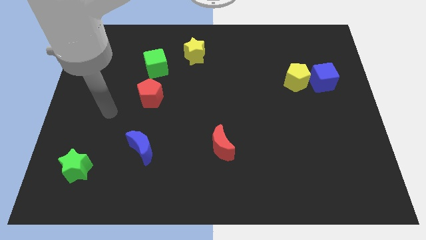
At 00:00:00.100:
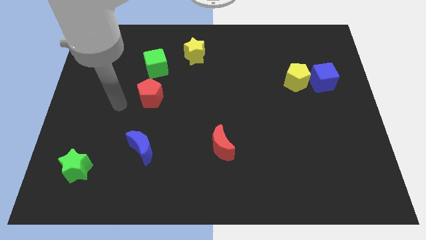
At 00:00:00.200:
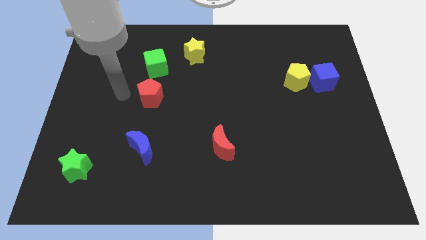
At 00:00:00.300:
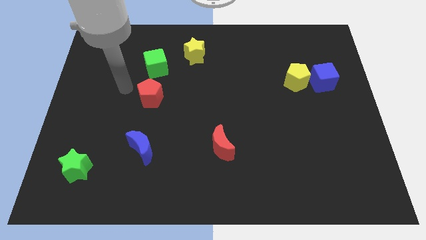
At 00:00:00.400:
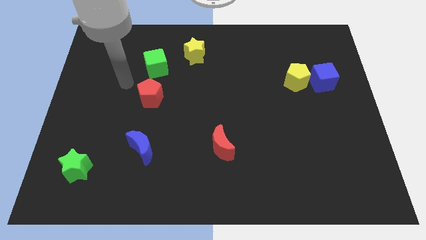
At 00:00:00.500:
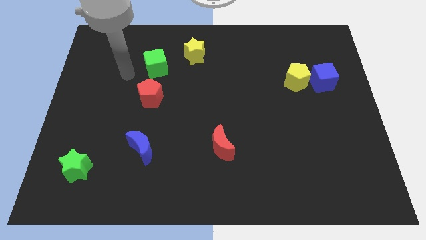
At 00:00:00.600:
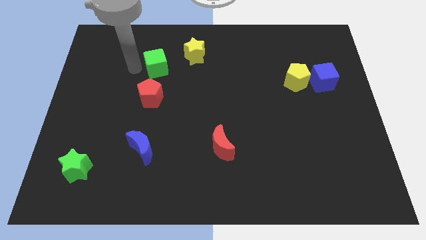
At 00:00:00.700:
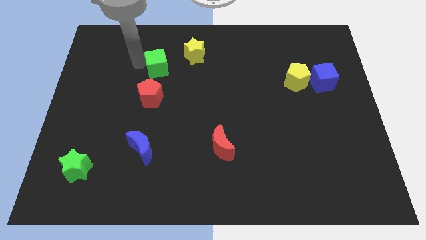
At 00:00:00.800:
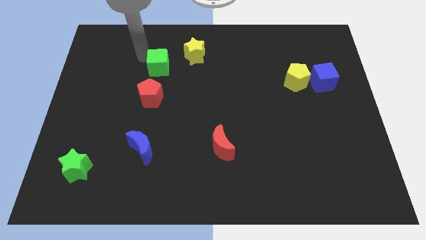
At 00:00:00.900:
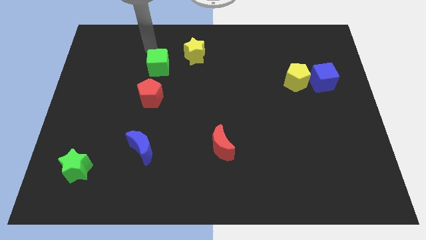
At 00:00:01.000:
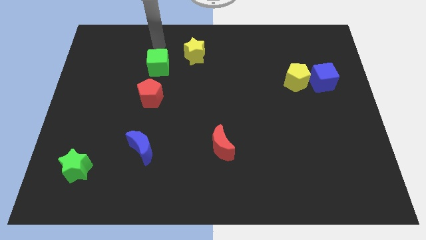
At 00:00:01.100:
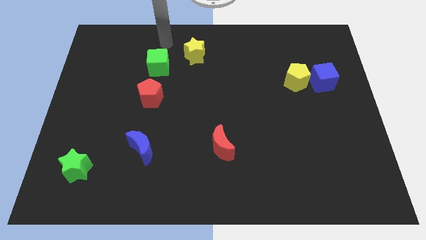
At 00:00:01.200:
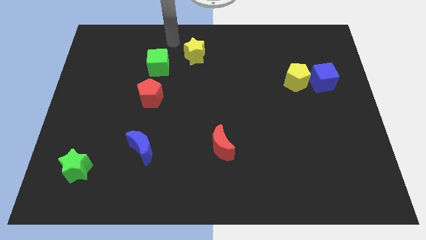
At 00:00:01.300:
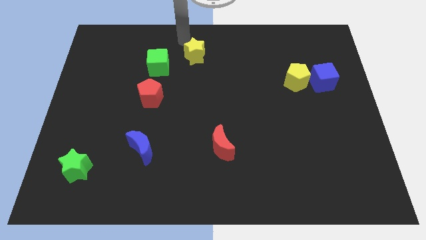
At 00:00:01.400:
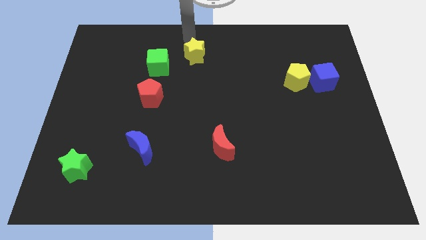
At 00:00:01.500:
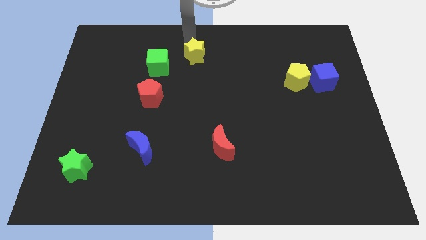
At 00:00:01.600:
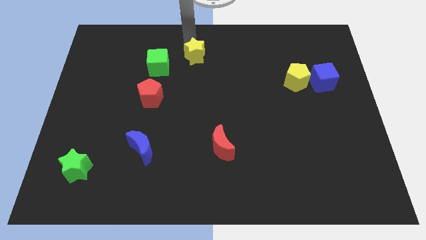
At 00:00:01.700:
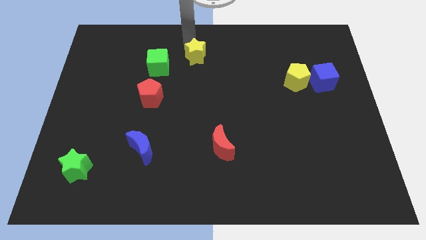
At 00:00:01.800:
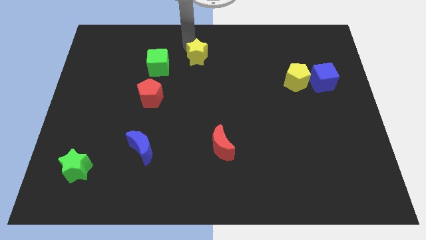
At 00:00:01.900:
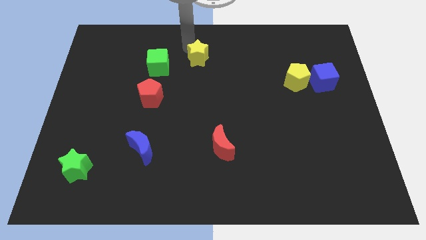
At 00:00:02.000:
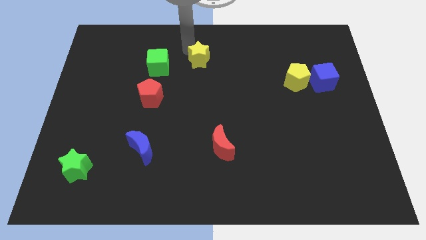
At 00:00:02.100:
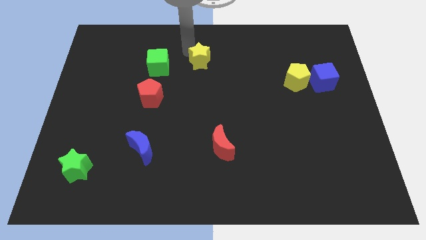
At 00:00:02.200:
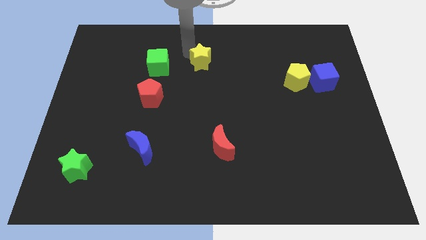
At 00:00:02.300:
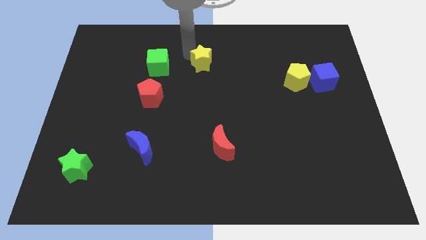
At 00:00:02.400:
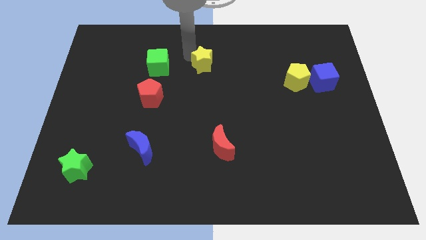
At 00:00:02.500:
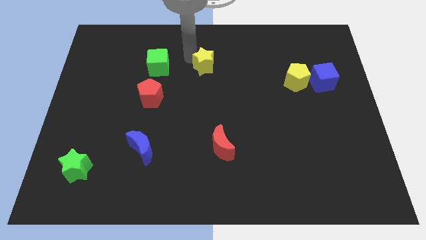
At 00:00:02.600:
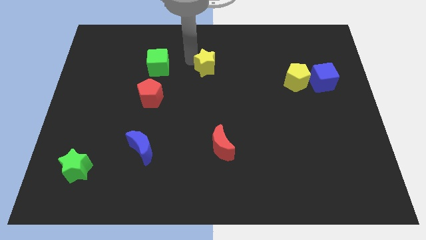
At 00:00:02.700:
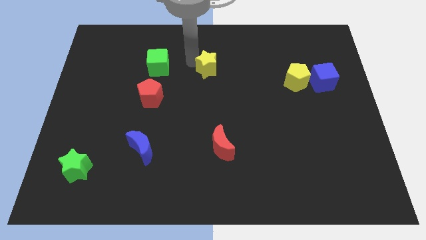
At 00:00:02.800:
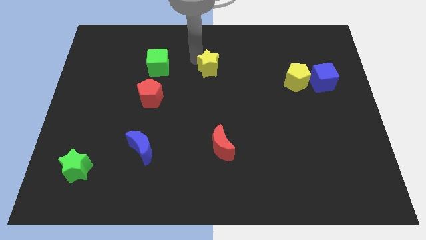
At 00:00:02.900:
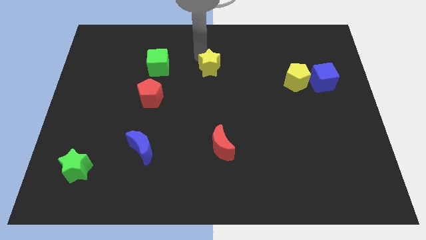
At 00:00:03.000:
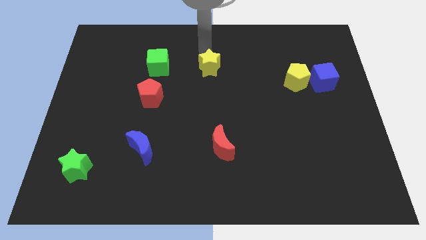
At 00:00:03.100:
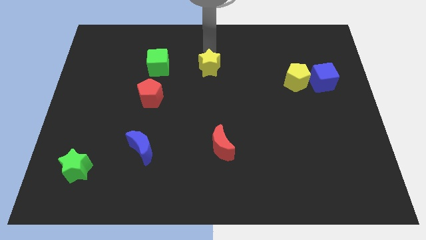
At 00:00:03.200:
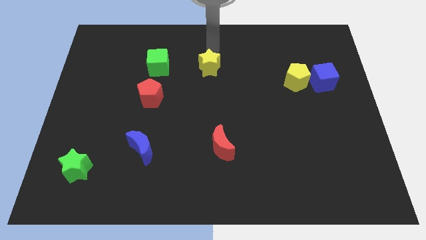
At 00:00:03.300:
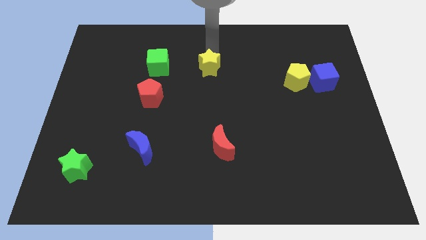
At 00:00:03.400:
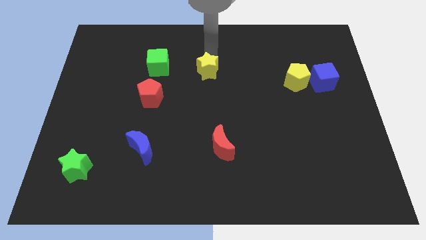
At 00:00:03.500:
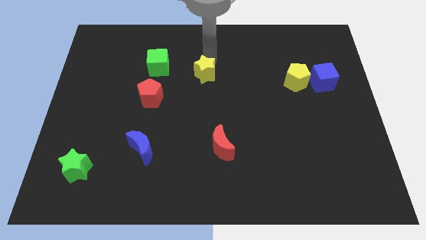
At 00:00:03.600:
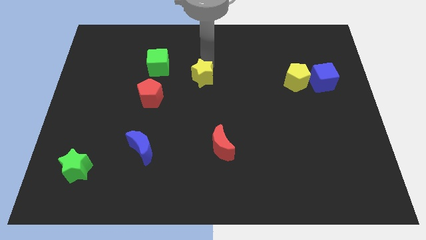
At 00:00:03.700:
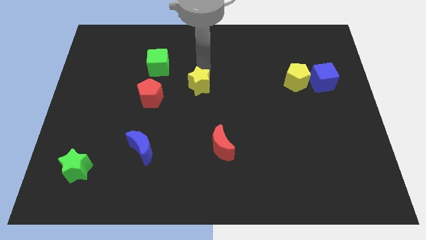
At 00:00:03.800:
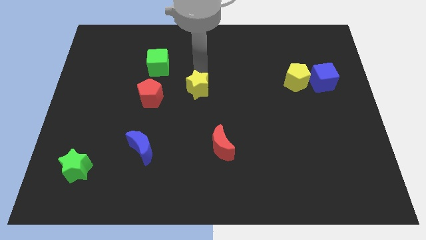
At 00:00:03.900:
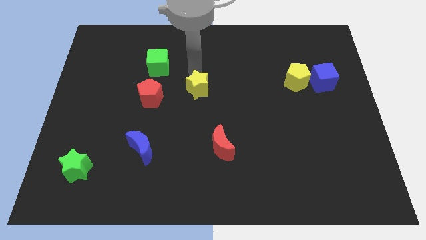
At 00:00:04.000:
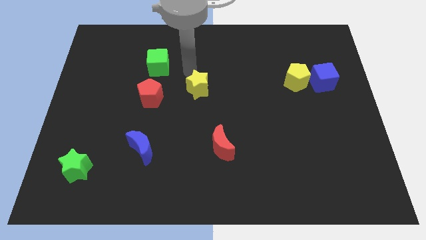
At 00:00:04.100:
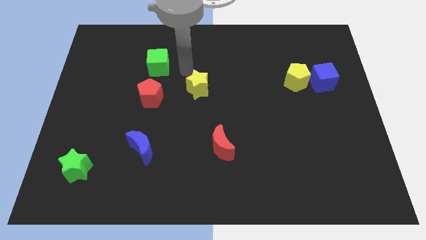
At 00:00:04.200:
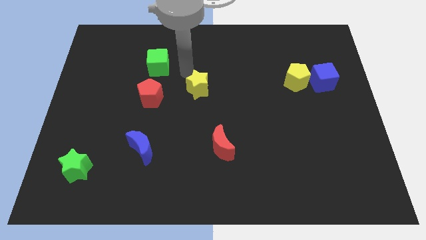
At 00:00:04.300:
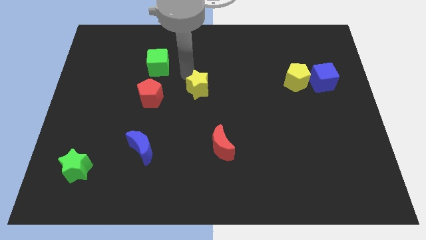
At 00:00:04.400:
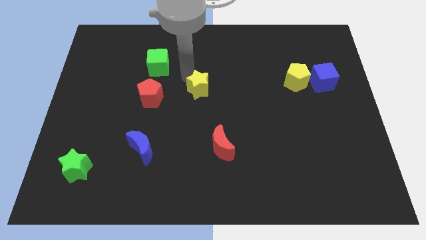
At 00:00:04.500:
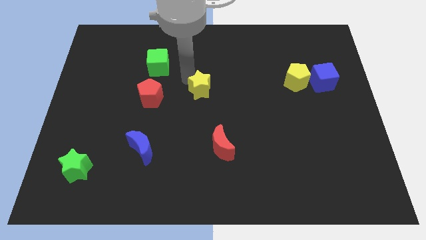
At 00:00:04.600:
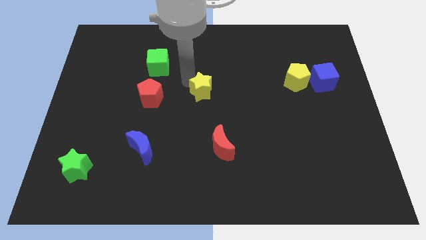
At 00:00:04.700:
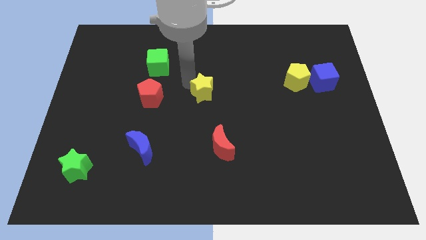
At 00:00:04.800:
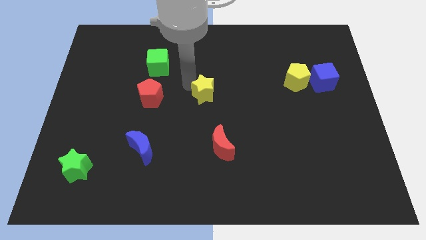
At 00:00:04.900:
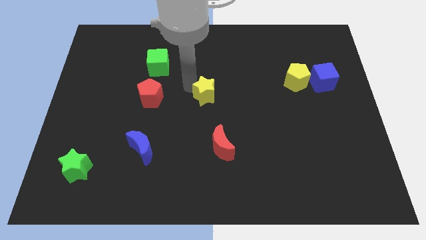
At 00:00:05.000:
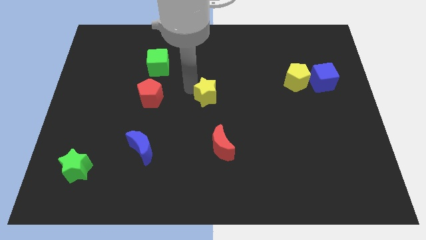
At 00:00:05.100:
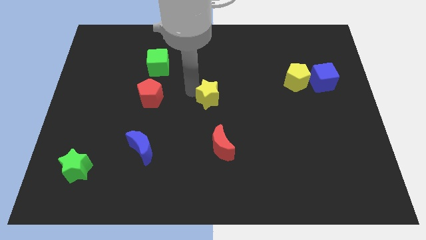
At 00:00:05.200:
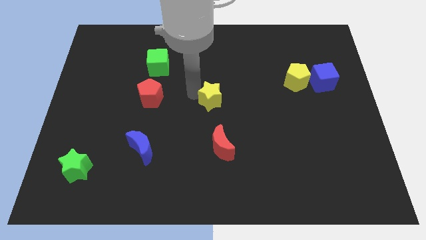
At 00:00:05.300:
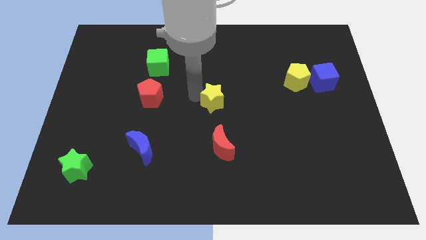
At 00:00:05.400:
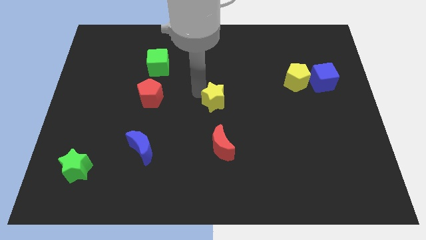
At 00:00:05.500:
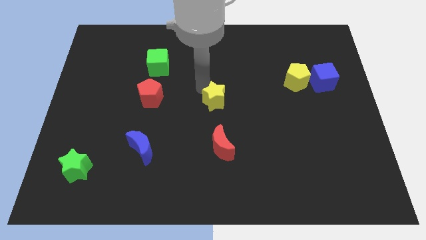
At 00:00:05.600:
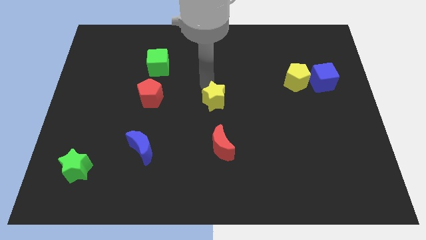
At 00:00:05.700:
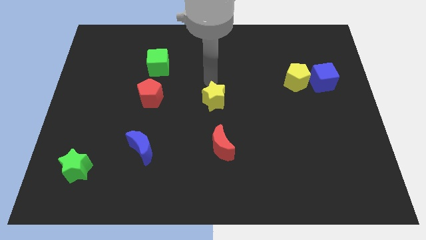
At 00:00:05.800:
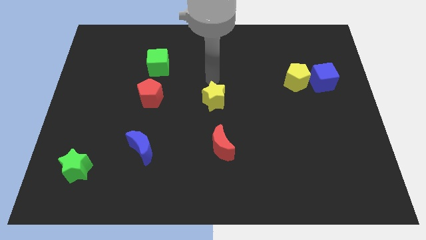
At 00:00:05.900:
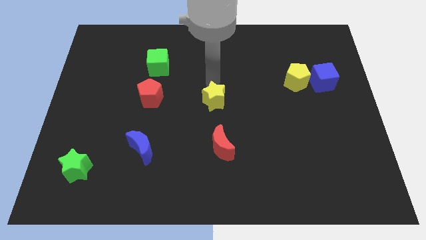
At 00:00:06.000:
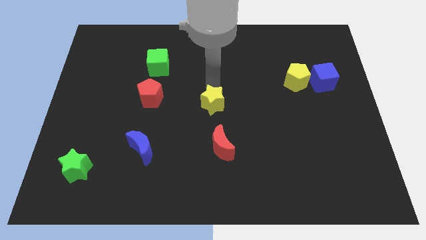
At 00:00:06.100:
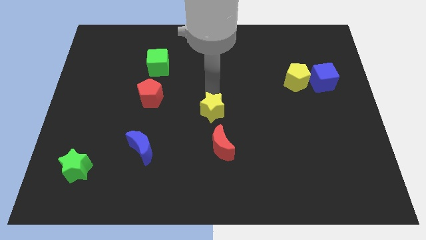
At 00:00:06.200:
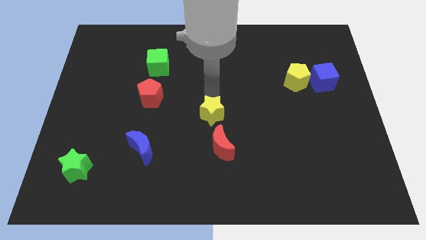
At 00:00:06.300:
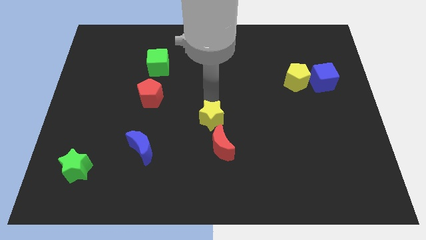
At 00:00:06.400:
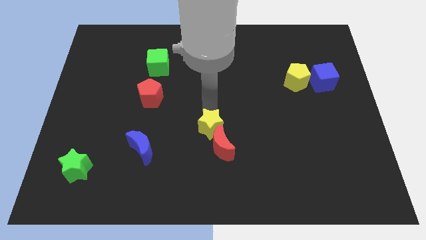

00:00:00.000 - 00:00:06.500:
push the yellow star to the red moon
